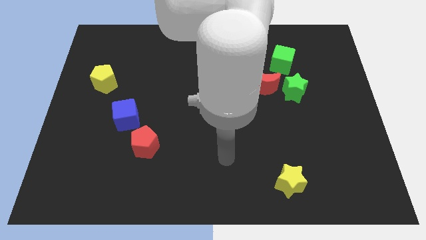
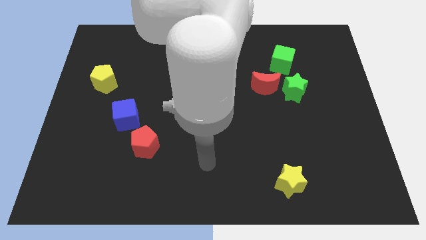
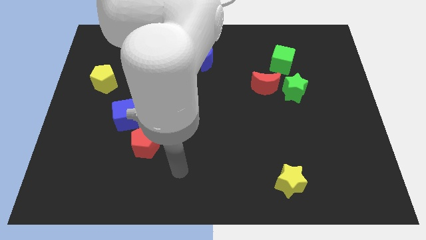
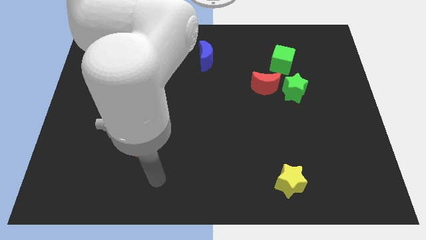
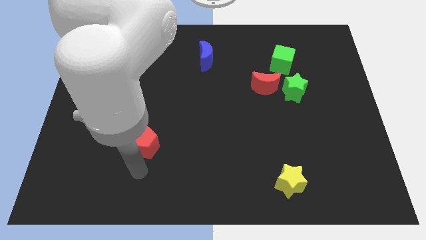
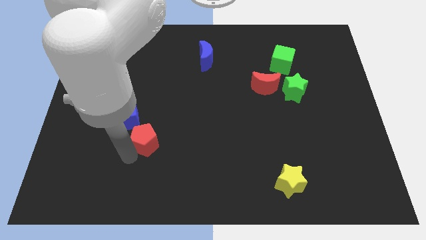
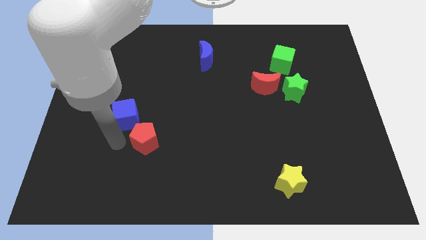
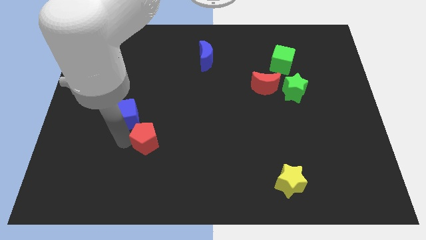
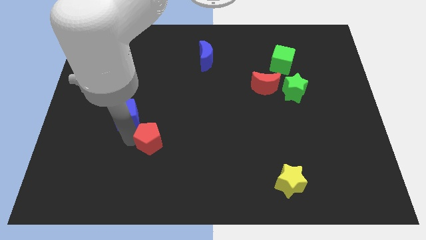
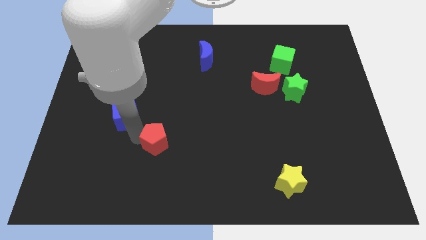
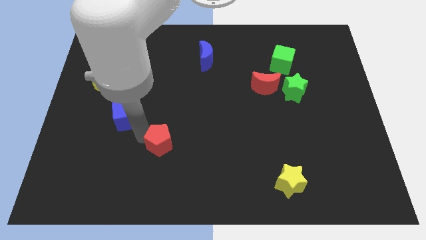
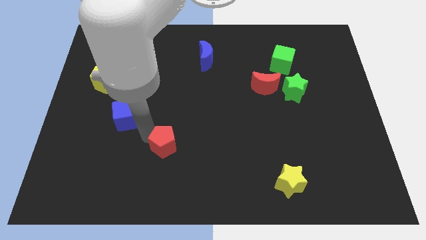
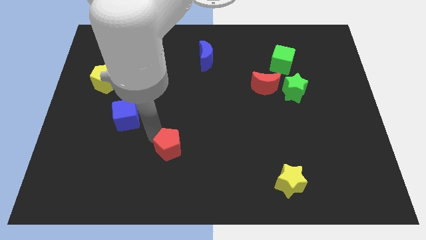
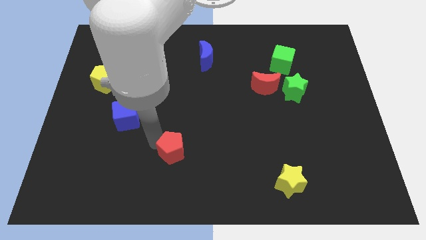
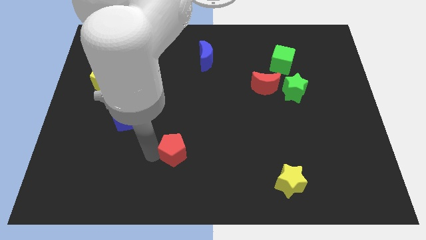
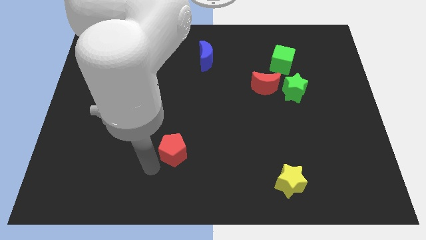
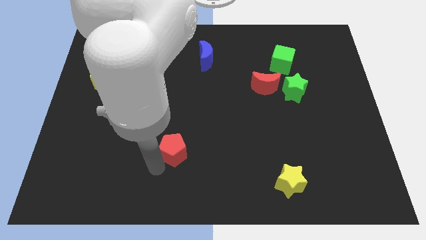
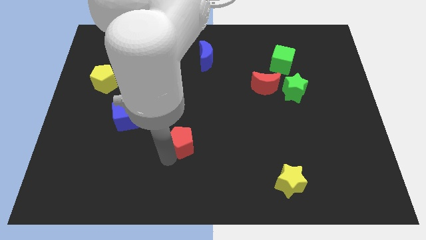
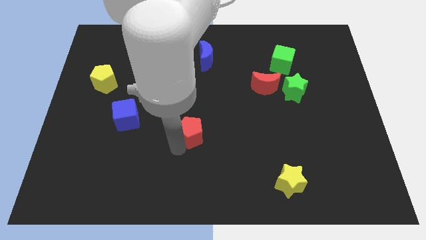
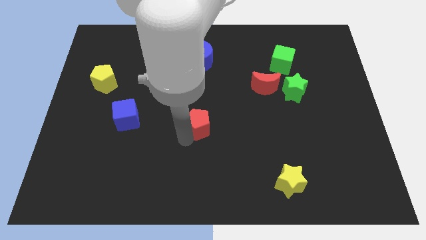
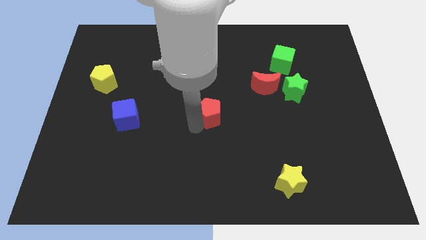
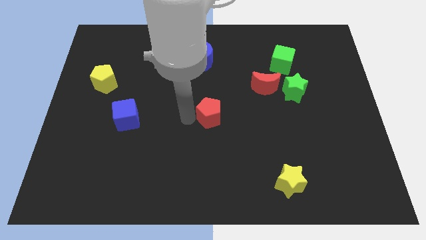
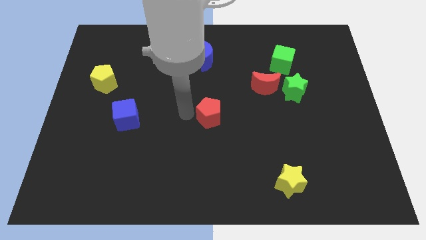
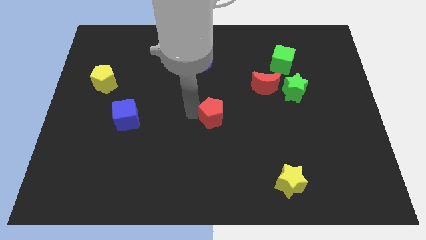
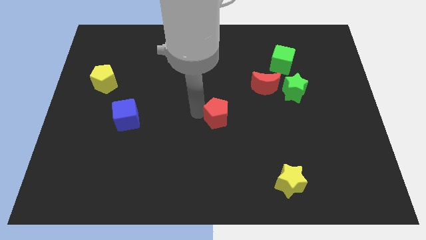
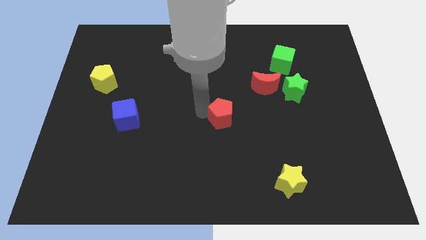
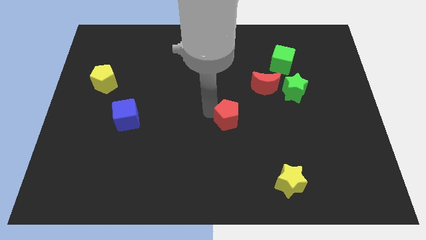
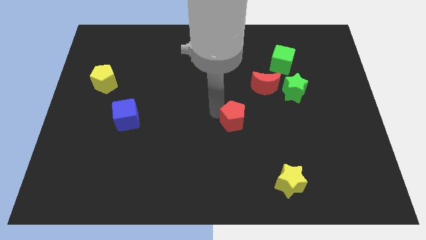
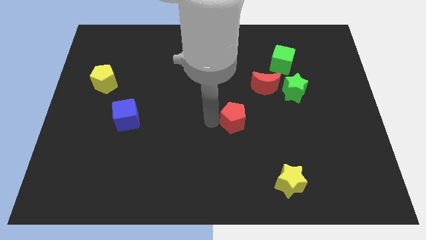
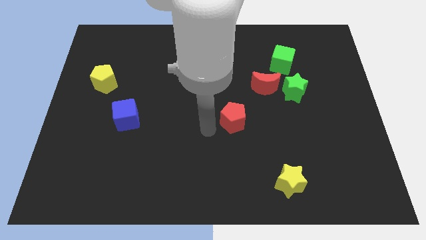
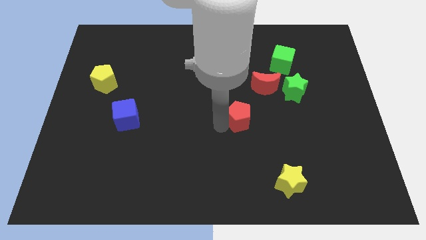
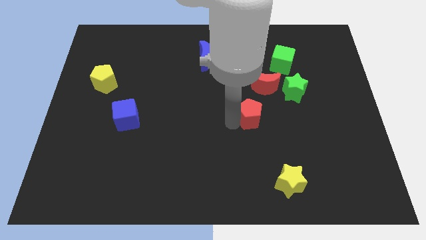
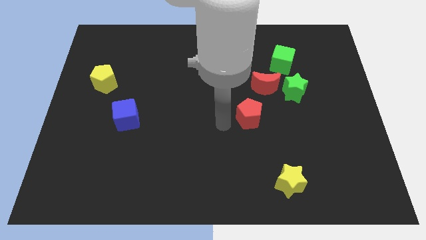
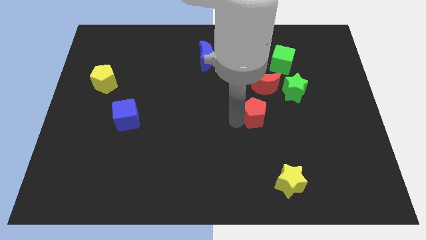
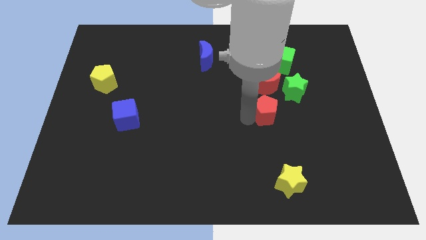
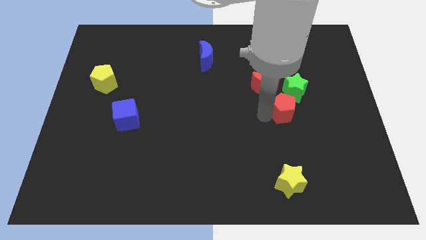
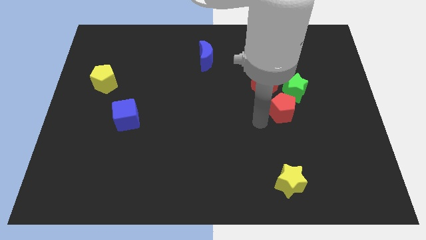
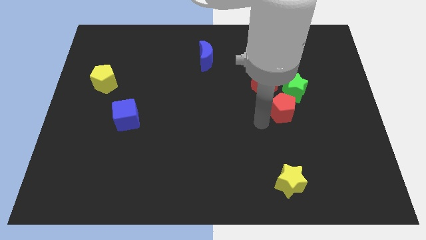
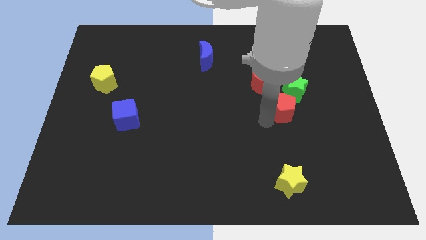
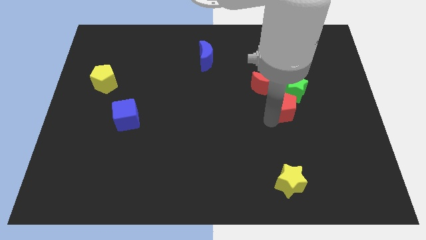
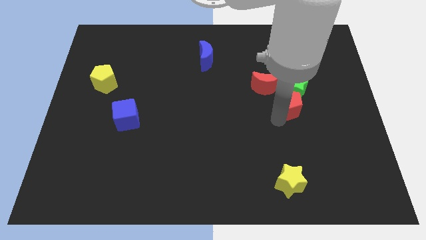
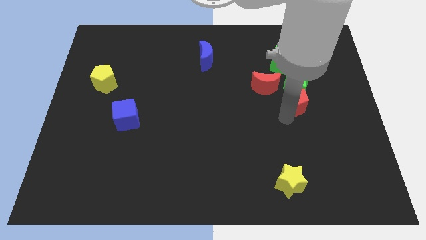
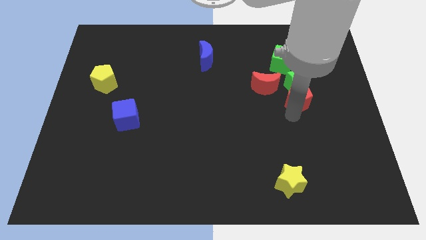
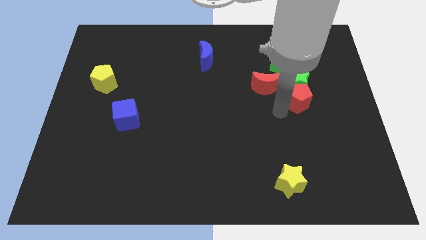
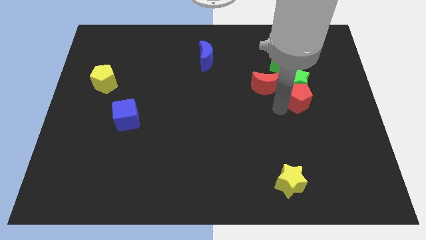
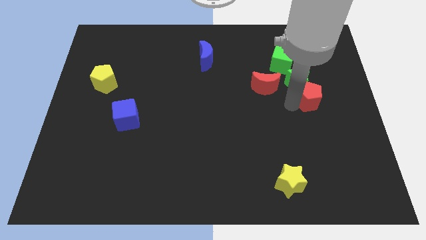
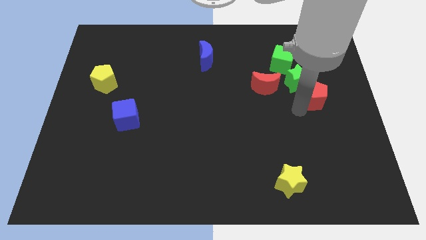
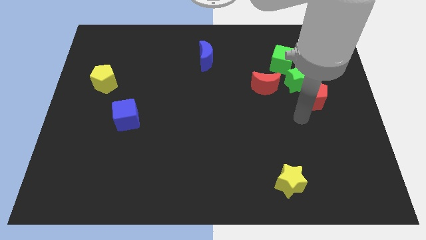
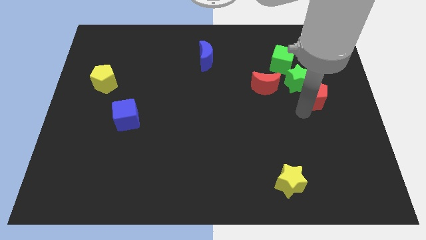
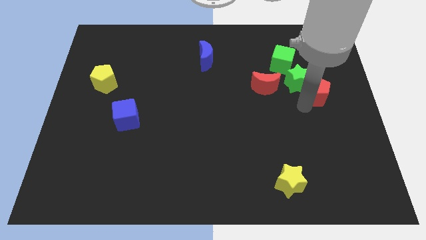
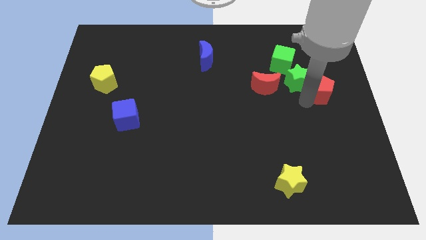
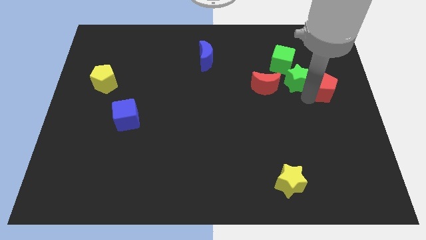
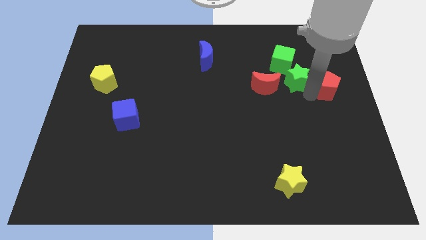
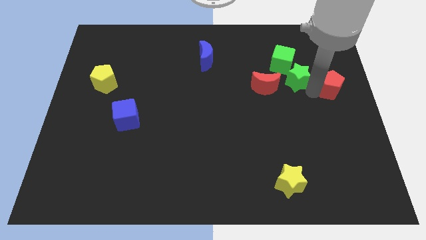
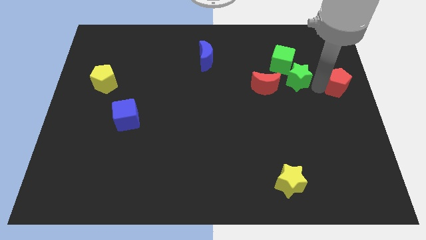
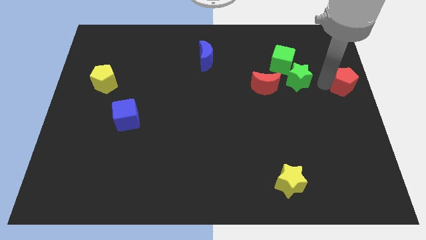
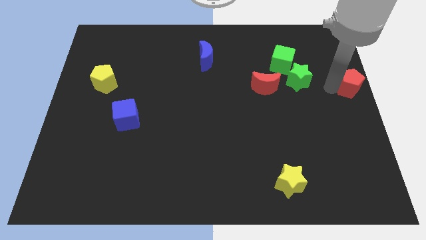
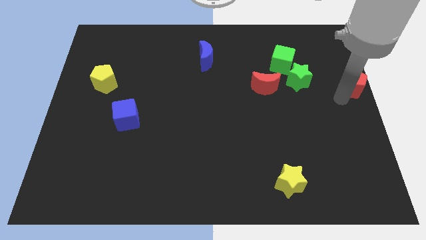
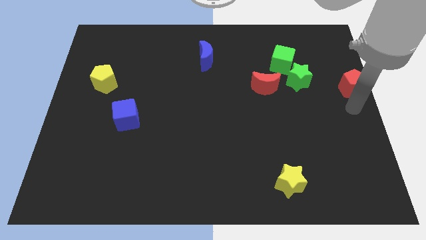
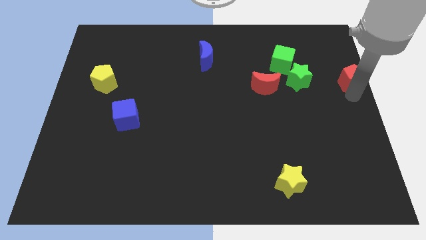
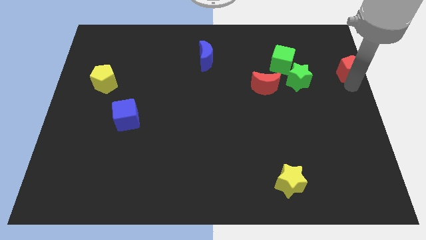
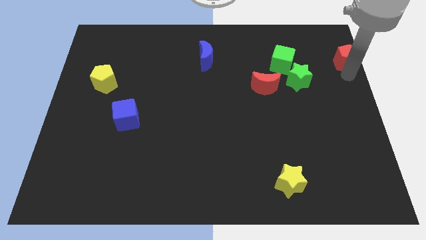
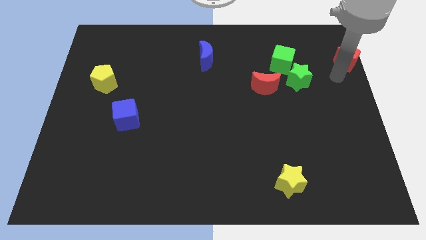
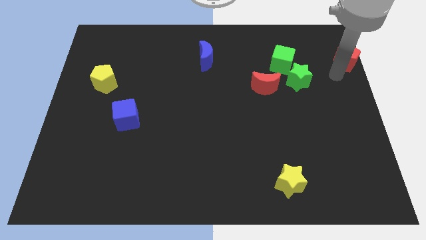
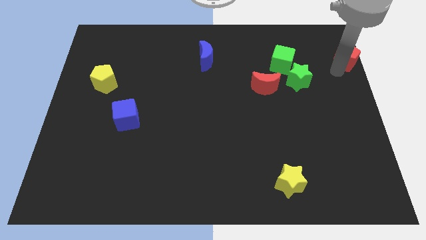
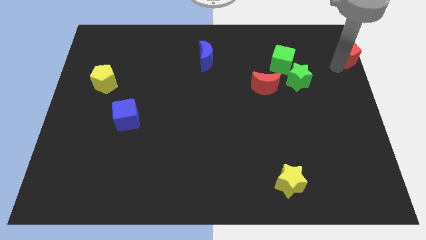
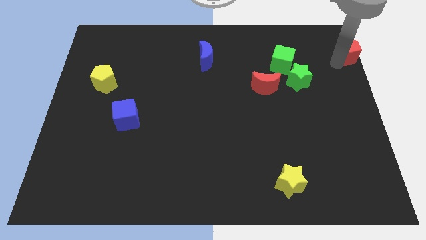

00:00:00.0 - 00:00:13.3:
move the red pentagon to the upper right corner
